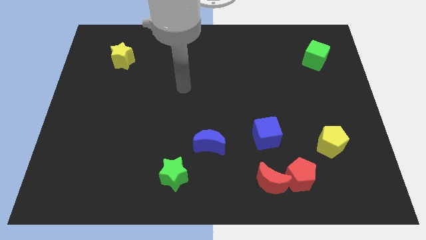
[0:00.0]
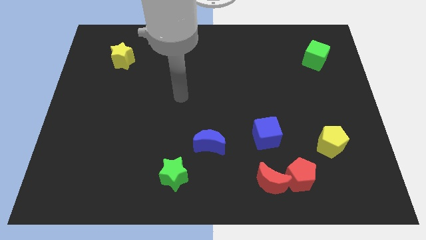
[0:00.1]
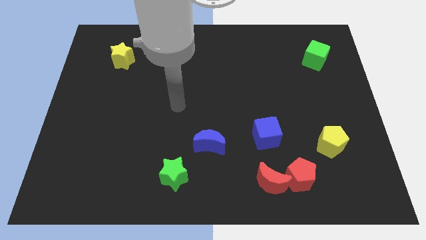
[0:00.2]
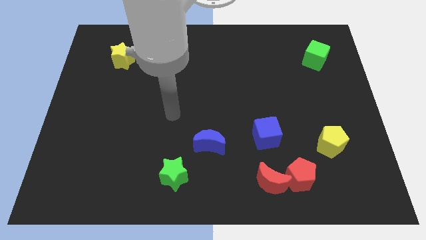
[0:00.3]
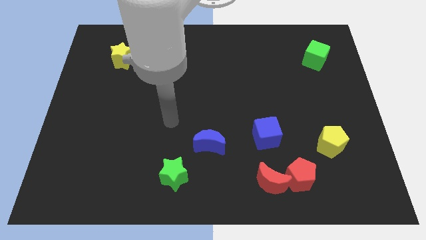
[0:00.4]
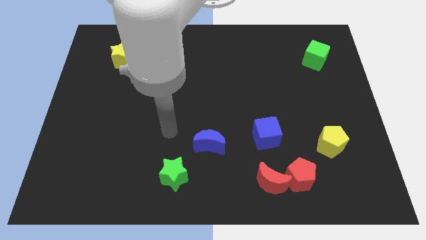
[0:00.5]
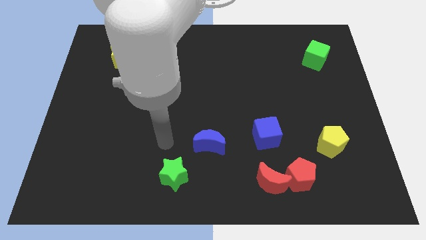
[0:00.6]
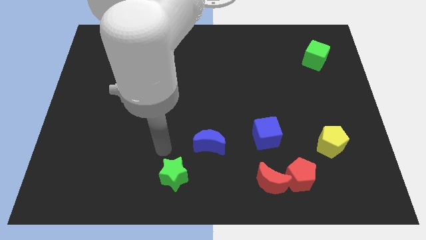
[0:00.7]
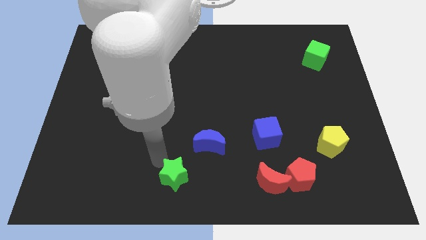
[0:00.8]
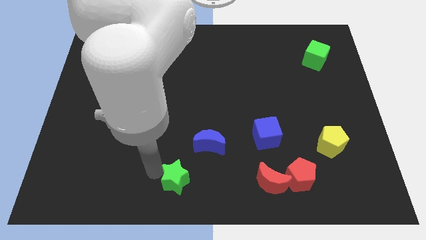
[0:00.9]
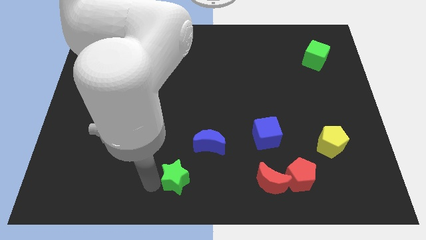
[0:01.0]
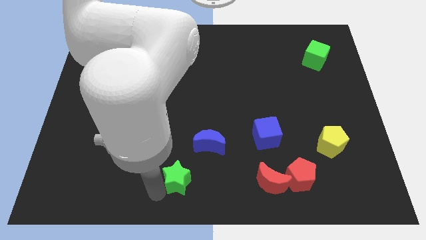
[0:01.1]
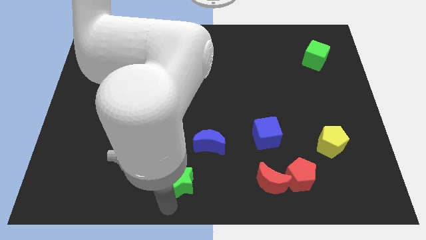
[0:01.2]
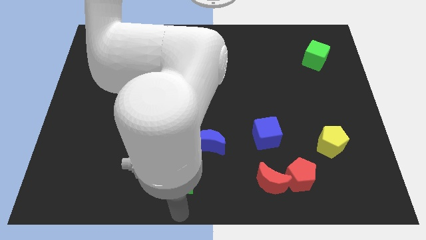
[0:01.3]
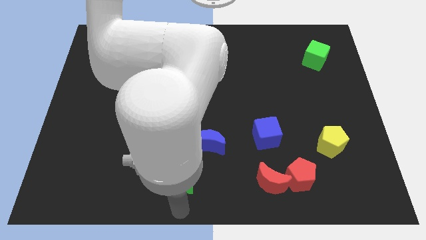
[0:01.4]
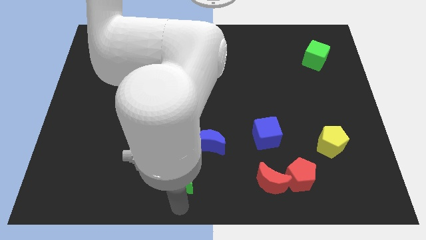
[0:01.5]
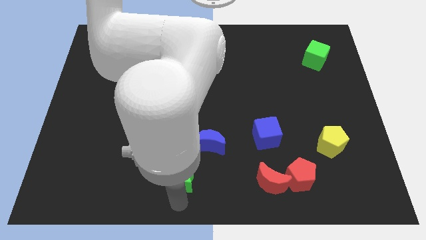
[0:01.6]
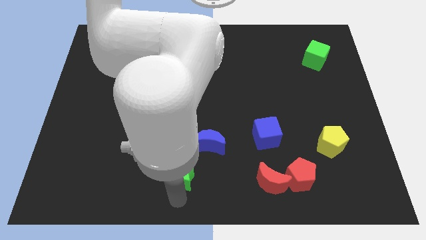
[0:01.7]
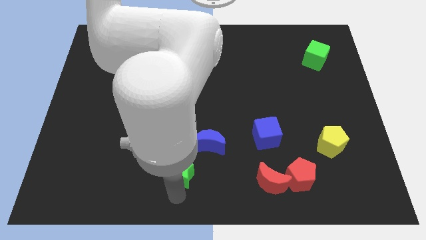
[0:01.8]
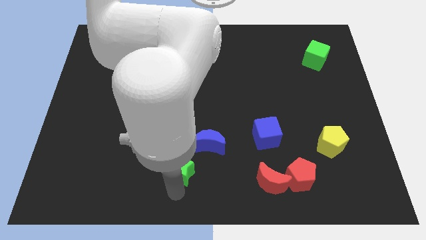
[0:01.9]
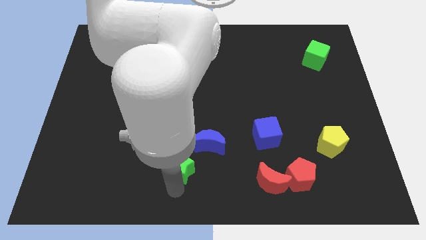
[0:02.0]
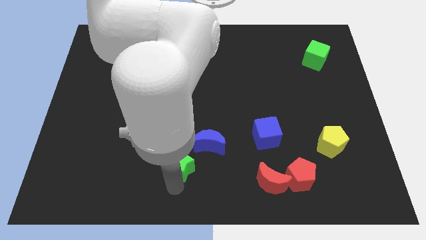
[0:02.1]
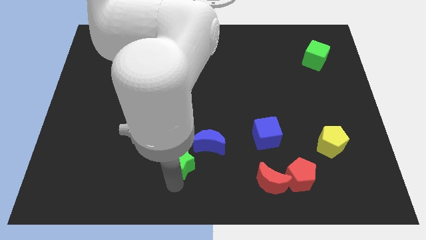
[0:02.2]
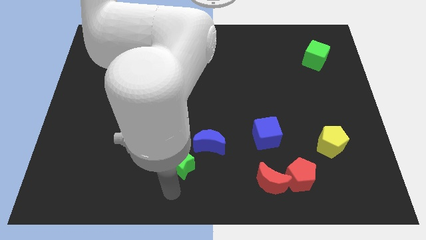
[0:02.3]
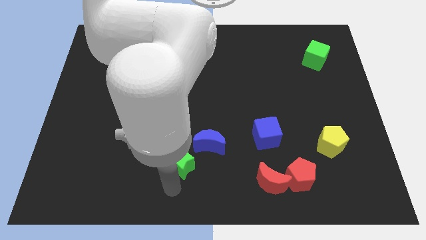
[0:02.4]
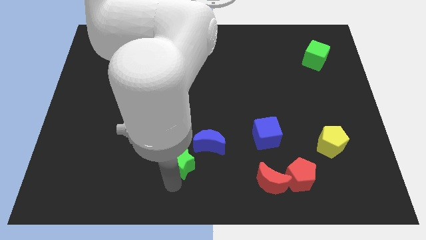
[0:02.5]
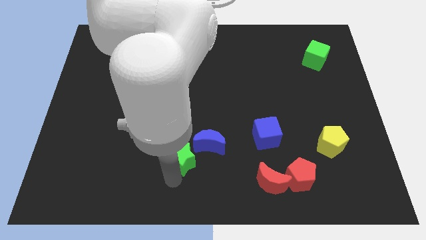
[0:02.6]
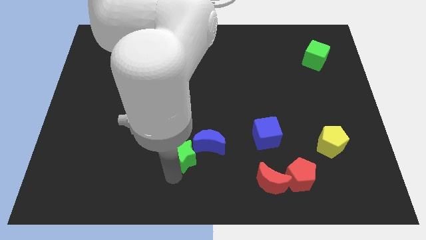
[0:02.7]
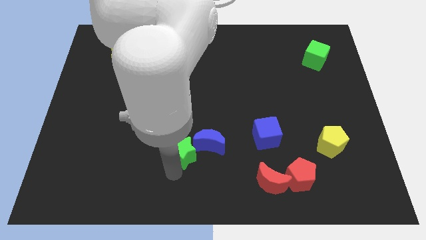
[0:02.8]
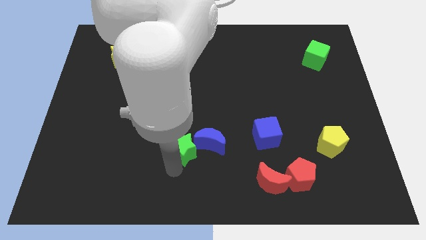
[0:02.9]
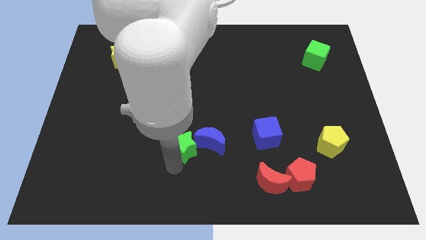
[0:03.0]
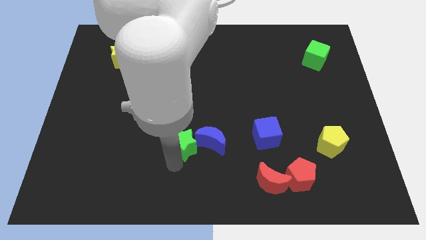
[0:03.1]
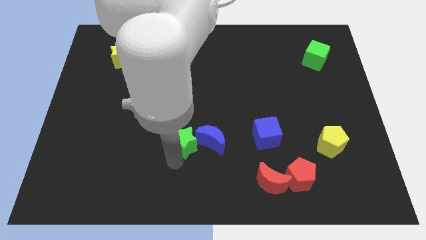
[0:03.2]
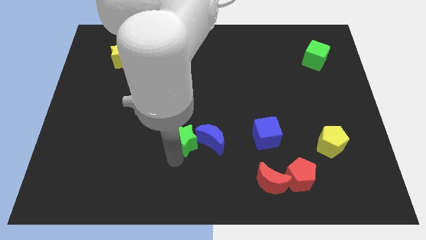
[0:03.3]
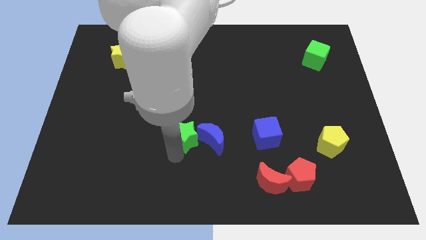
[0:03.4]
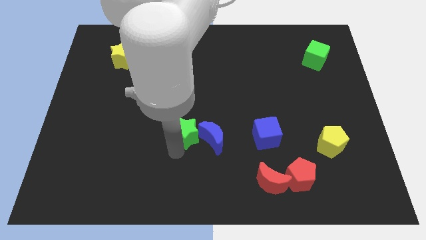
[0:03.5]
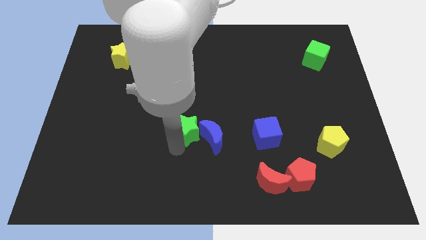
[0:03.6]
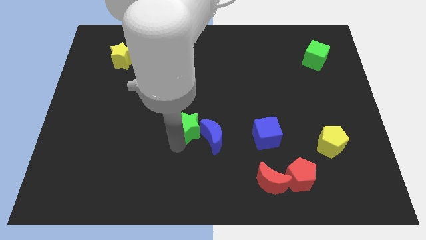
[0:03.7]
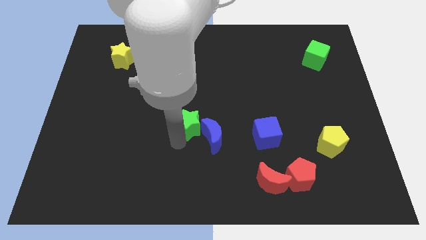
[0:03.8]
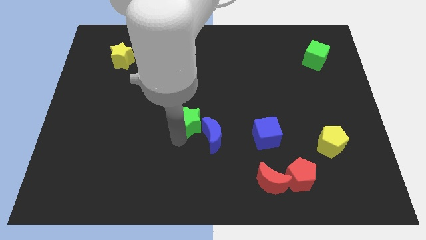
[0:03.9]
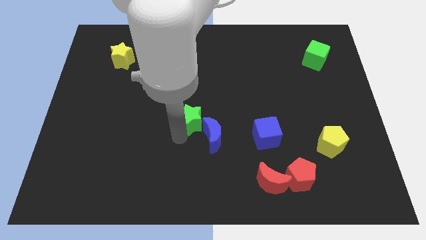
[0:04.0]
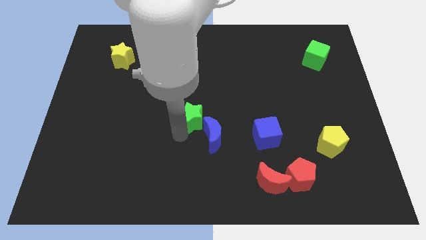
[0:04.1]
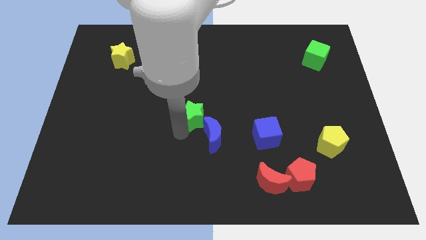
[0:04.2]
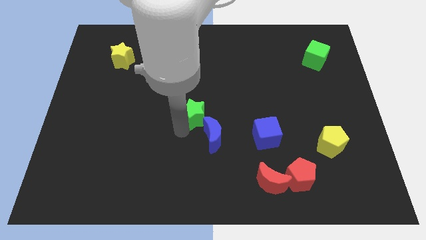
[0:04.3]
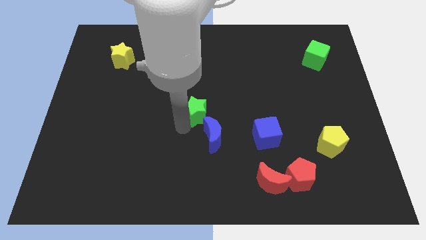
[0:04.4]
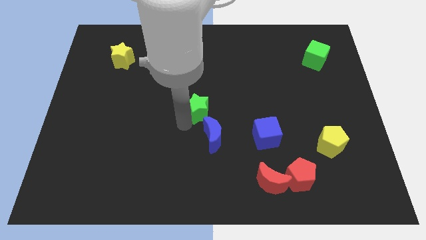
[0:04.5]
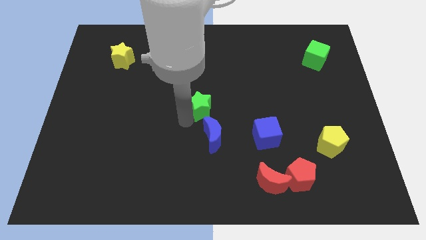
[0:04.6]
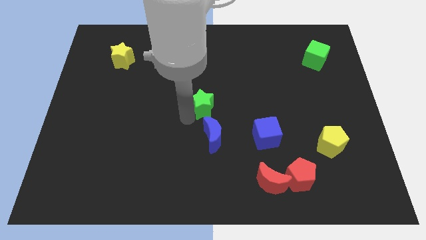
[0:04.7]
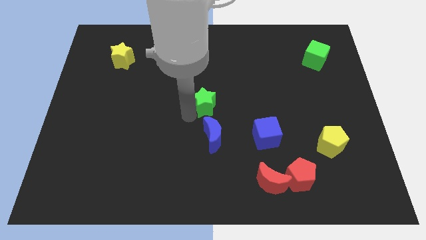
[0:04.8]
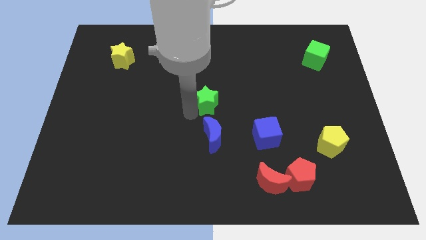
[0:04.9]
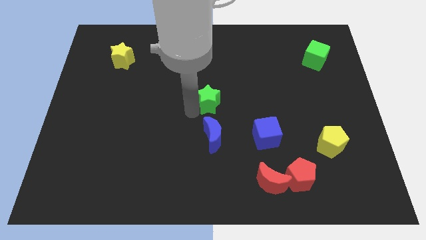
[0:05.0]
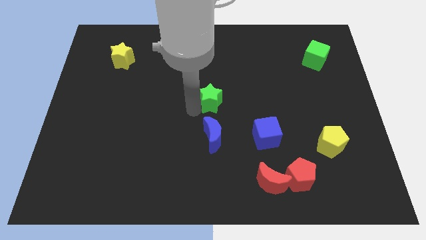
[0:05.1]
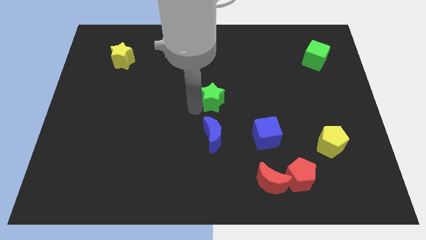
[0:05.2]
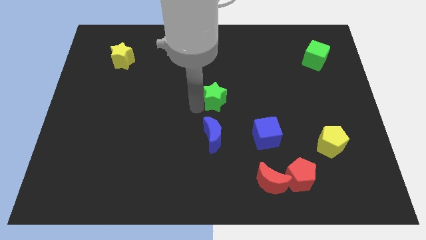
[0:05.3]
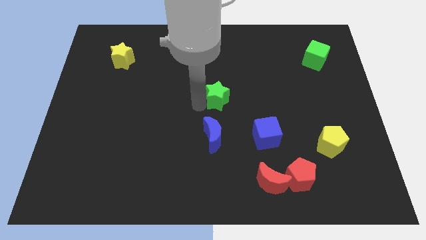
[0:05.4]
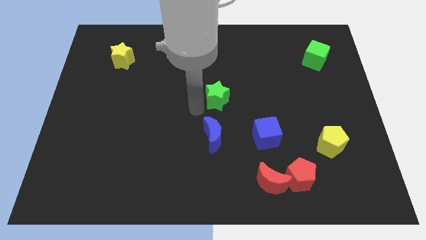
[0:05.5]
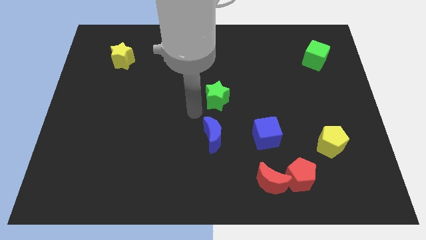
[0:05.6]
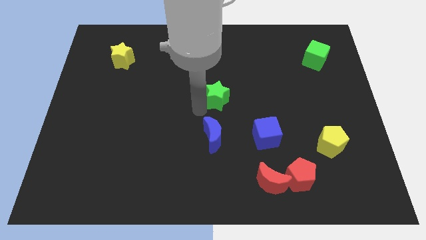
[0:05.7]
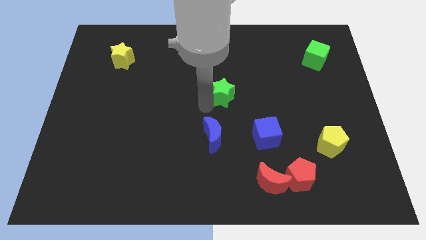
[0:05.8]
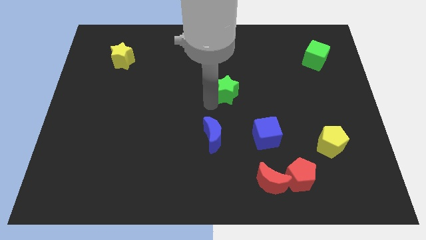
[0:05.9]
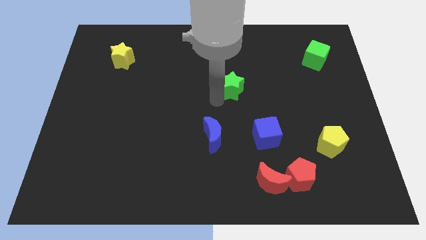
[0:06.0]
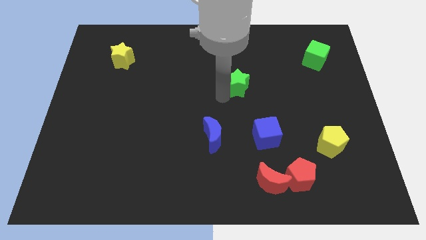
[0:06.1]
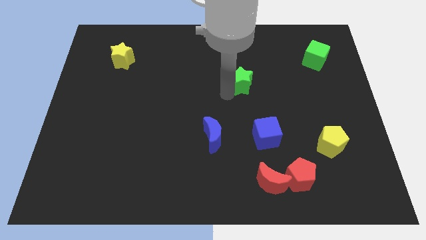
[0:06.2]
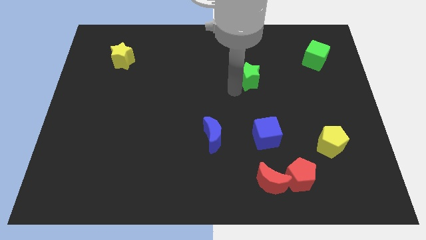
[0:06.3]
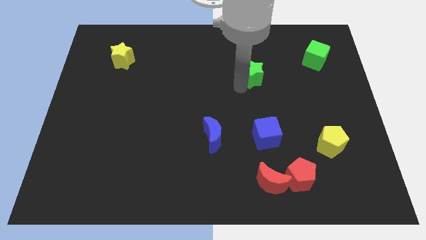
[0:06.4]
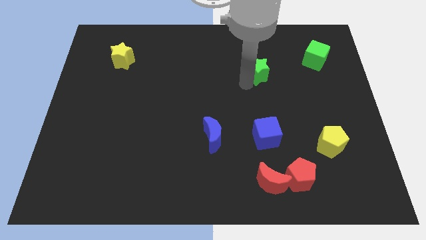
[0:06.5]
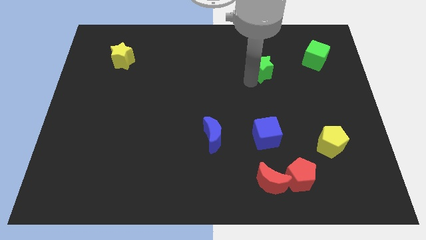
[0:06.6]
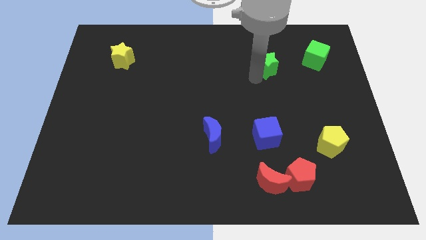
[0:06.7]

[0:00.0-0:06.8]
put the green star to the left of the green cube

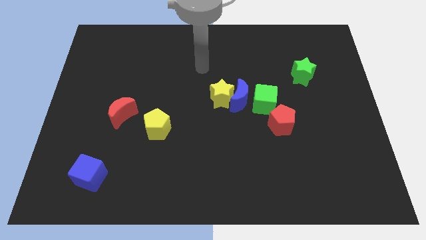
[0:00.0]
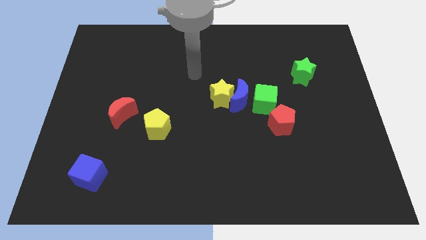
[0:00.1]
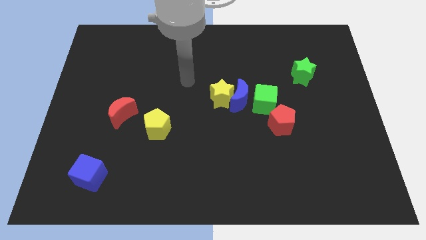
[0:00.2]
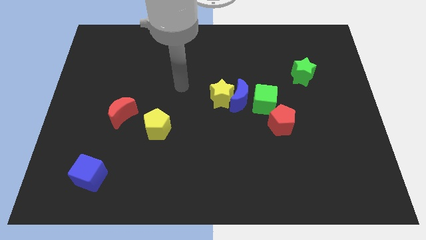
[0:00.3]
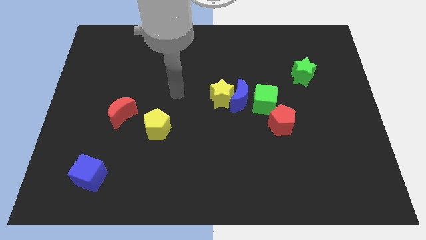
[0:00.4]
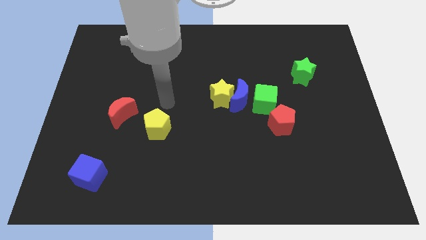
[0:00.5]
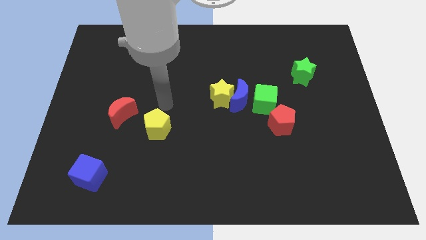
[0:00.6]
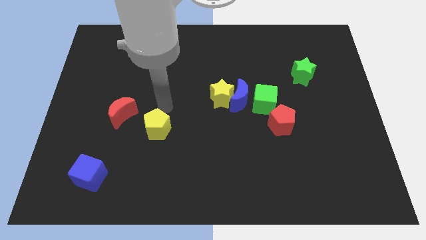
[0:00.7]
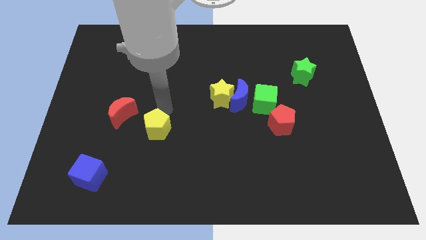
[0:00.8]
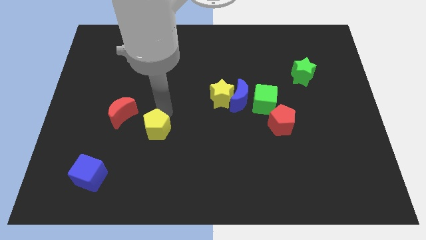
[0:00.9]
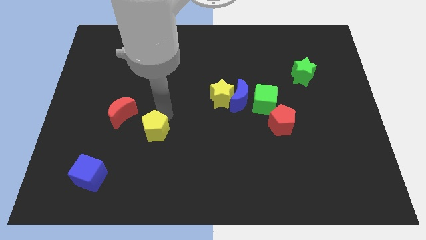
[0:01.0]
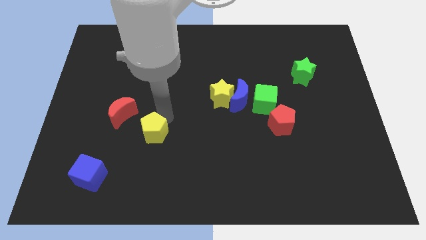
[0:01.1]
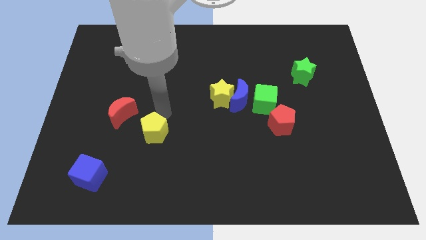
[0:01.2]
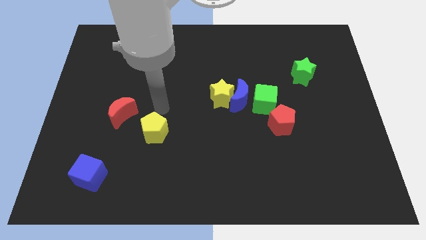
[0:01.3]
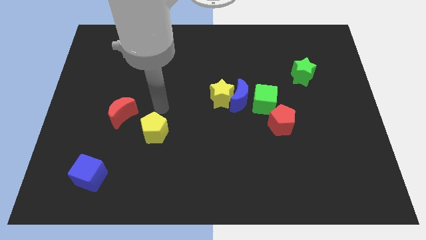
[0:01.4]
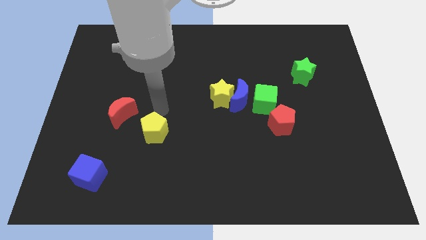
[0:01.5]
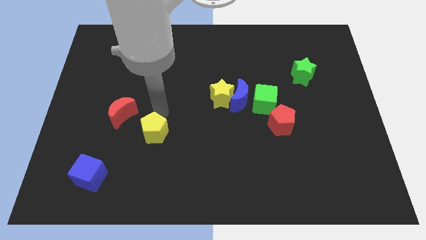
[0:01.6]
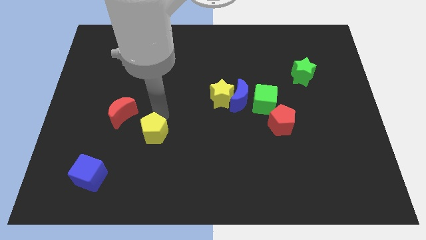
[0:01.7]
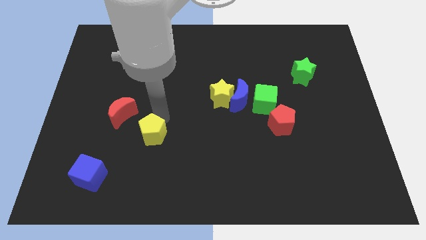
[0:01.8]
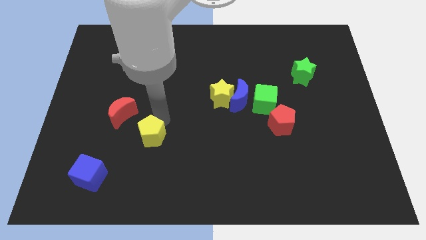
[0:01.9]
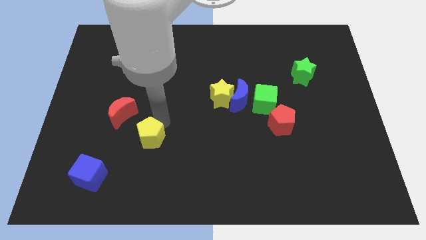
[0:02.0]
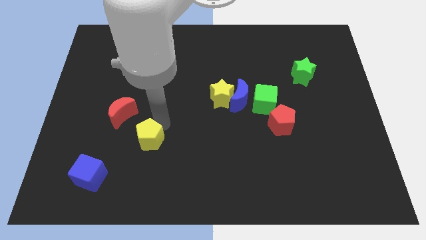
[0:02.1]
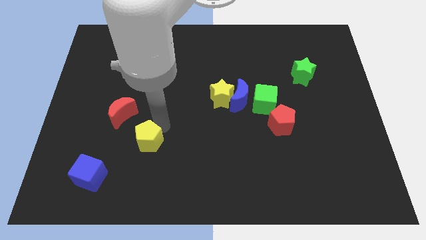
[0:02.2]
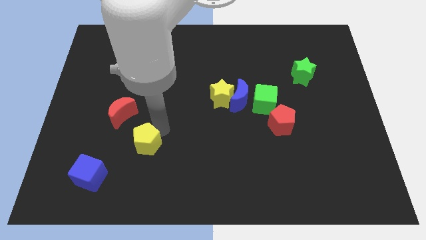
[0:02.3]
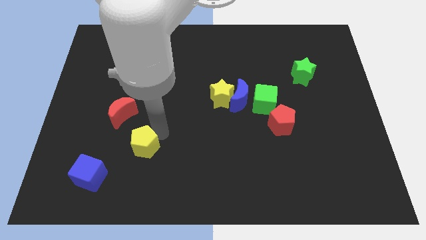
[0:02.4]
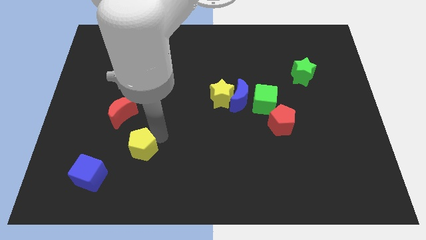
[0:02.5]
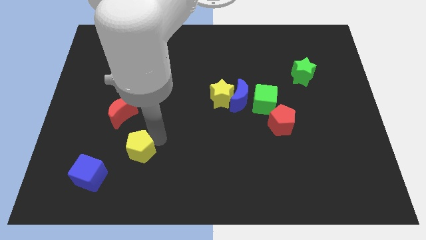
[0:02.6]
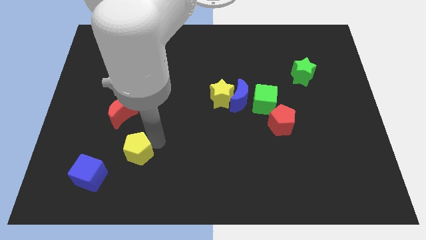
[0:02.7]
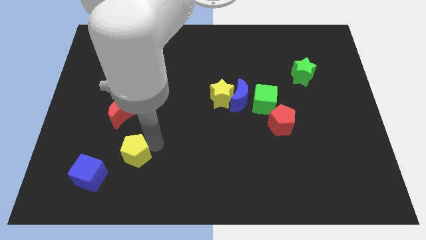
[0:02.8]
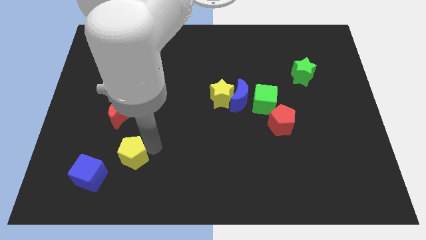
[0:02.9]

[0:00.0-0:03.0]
put the yellow pentagon to the right of the blue cube
